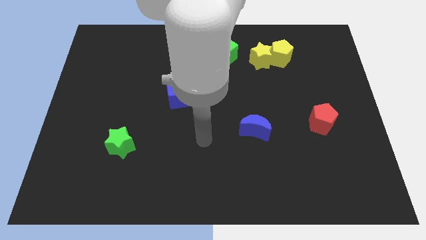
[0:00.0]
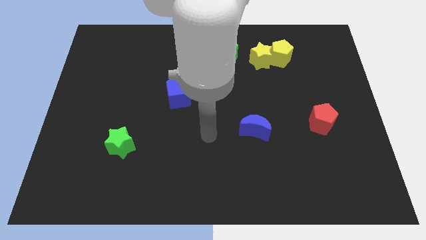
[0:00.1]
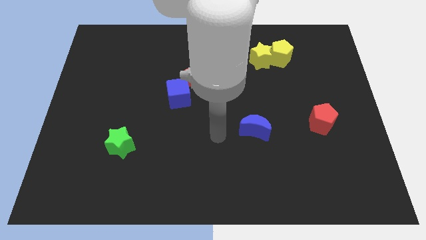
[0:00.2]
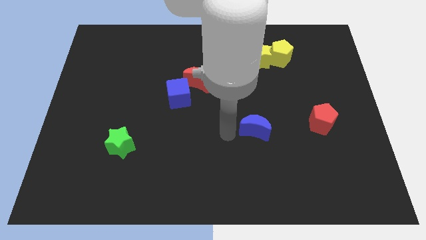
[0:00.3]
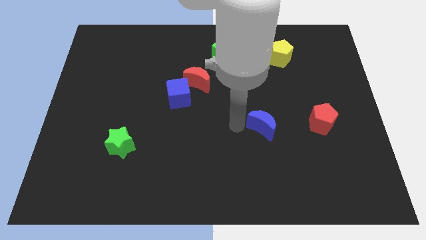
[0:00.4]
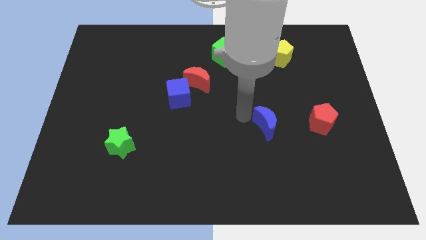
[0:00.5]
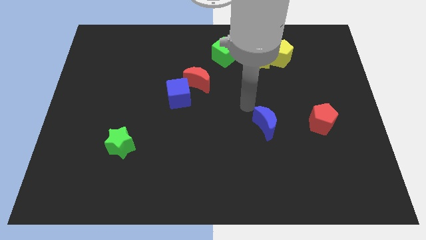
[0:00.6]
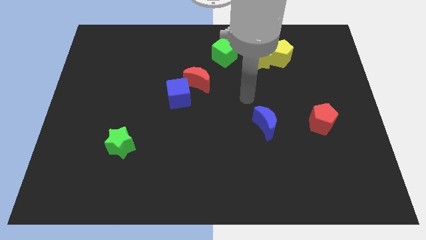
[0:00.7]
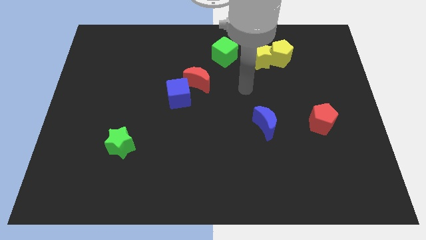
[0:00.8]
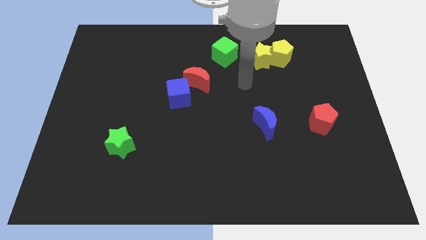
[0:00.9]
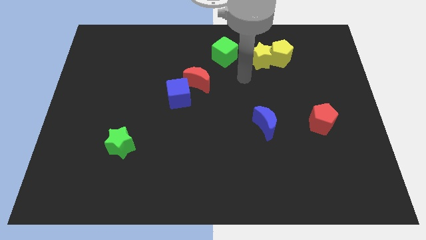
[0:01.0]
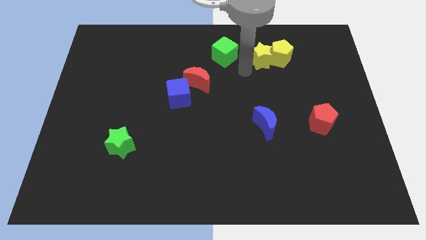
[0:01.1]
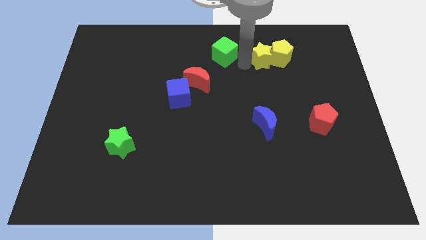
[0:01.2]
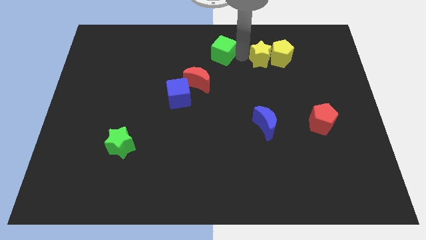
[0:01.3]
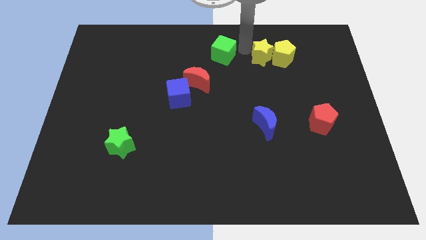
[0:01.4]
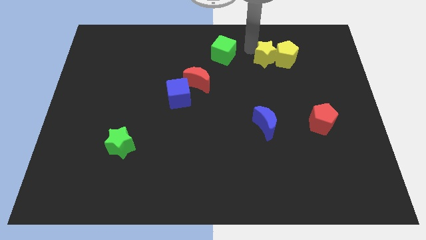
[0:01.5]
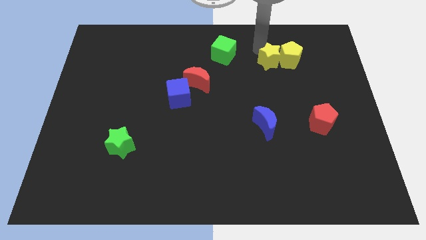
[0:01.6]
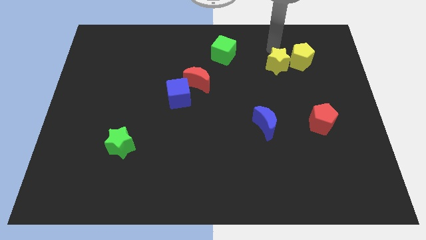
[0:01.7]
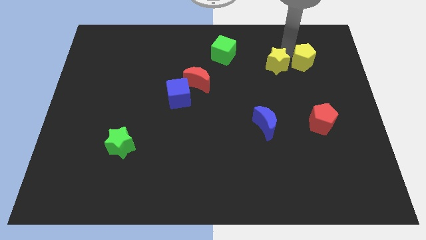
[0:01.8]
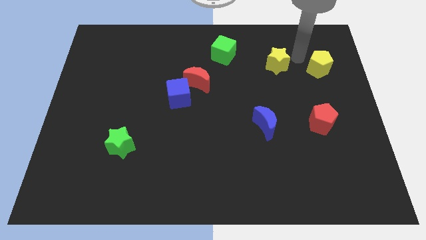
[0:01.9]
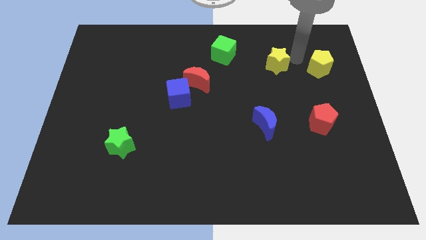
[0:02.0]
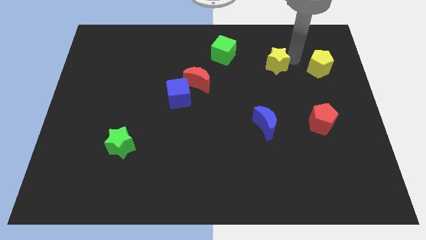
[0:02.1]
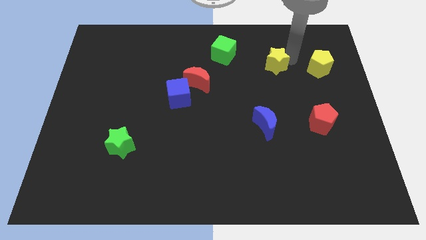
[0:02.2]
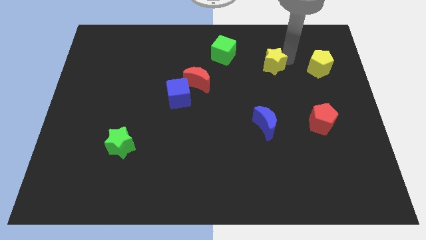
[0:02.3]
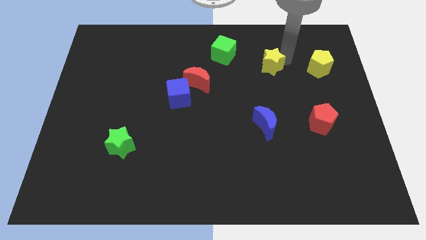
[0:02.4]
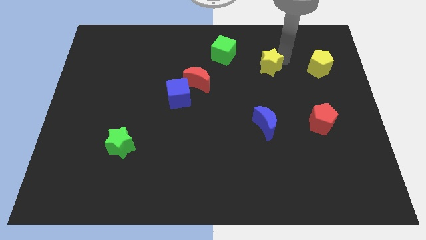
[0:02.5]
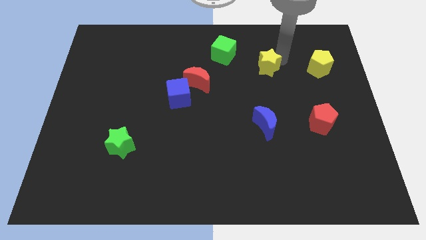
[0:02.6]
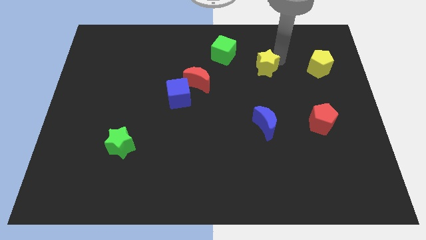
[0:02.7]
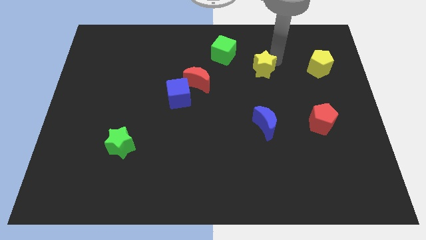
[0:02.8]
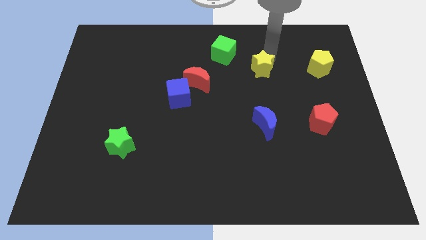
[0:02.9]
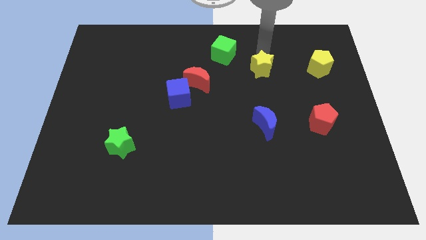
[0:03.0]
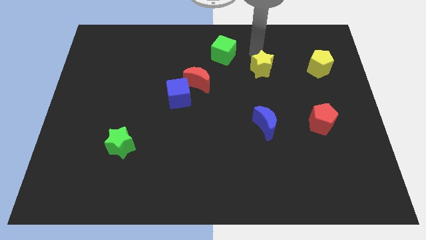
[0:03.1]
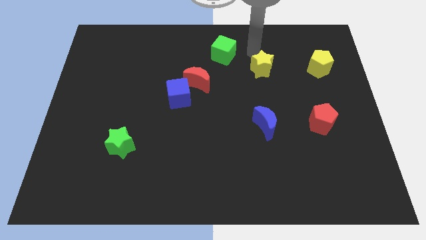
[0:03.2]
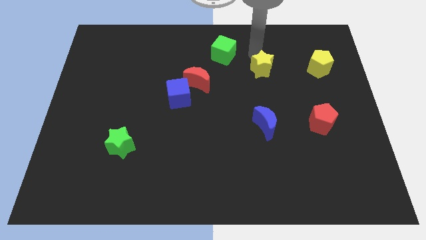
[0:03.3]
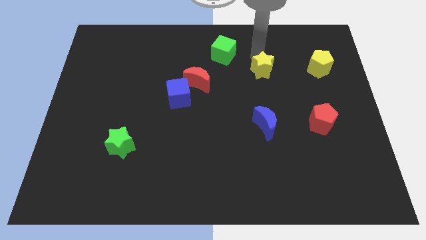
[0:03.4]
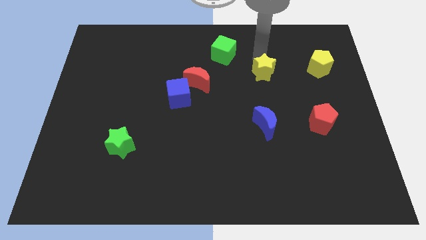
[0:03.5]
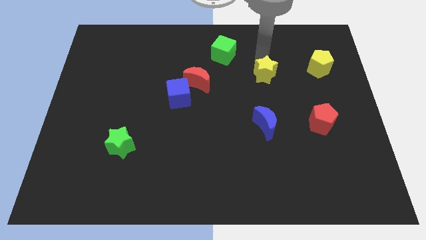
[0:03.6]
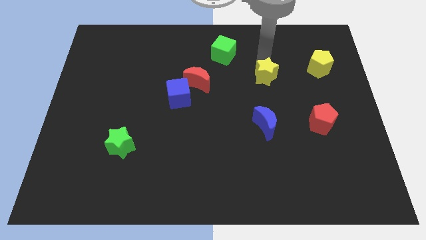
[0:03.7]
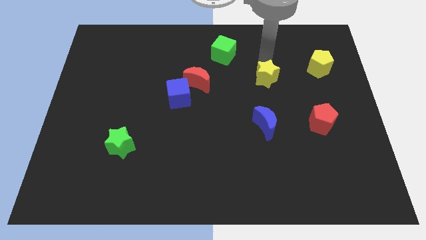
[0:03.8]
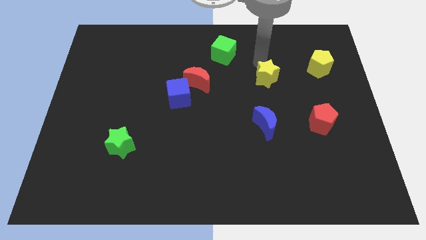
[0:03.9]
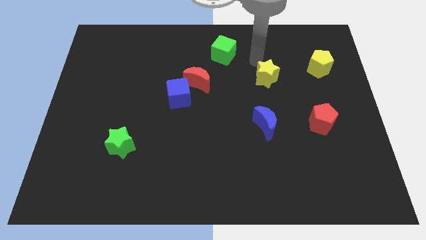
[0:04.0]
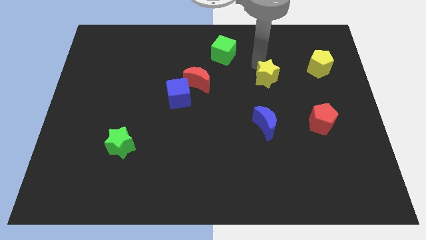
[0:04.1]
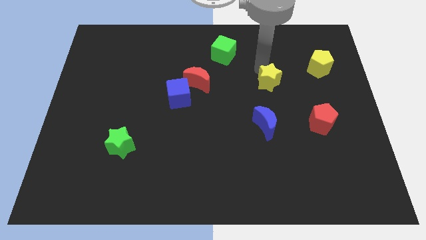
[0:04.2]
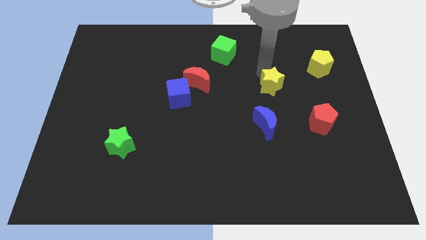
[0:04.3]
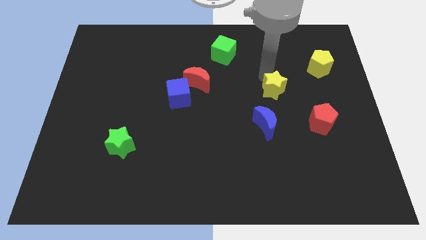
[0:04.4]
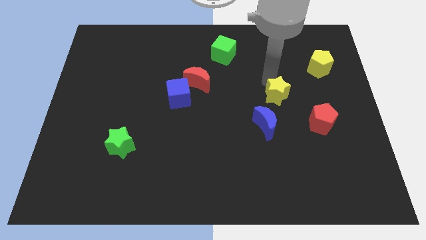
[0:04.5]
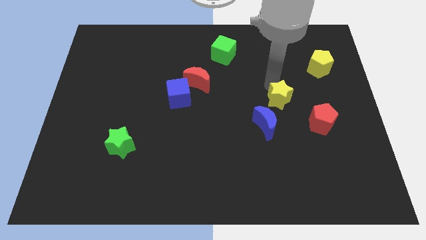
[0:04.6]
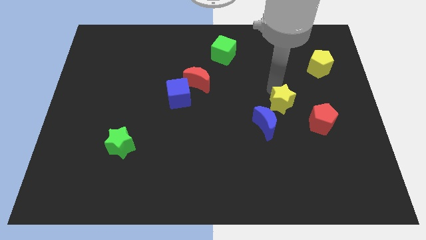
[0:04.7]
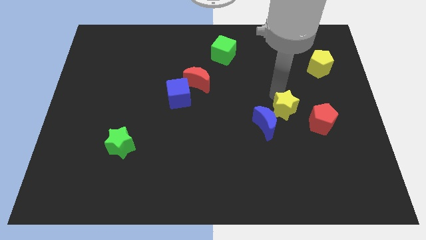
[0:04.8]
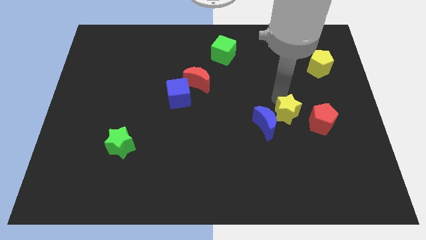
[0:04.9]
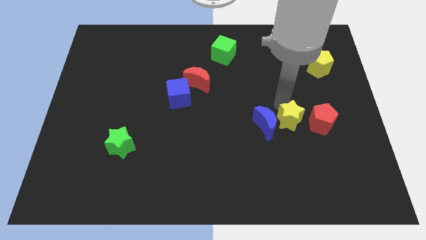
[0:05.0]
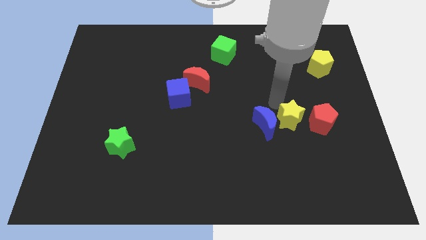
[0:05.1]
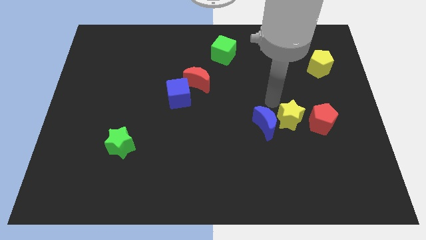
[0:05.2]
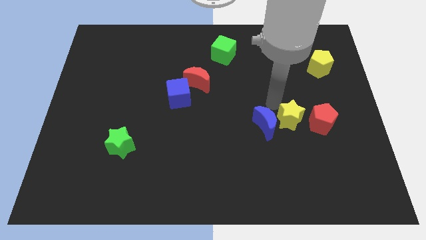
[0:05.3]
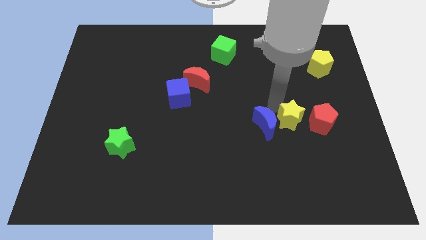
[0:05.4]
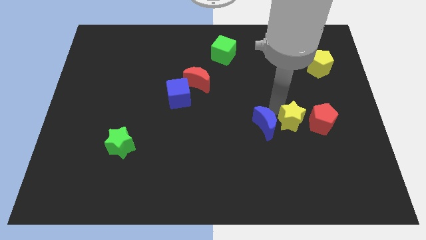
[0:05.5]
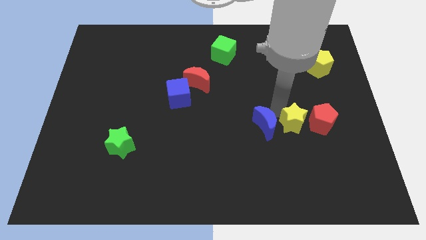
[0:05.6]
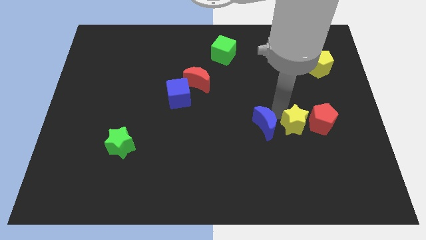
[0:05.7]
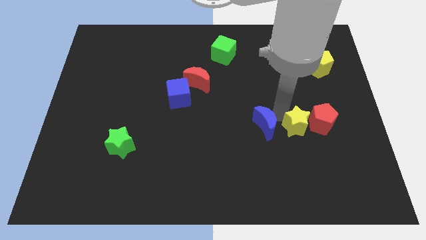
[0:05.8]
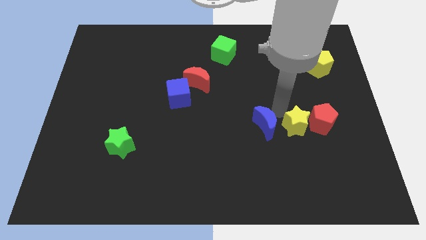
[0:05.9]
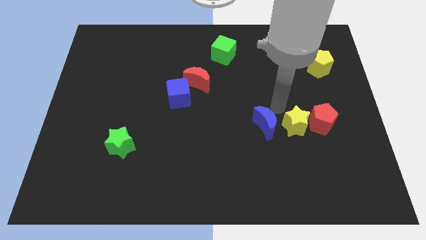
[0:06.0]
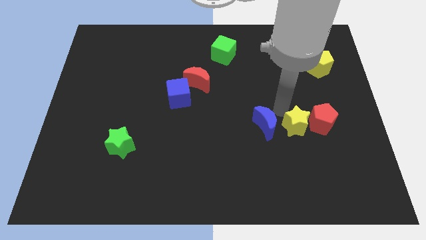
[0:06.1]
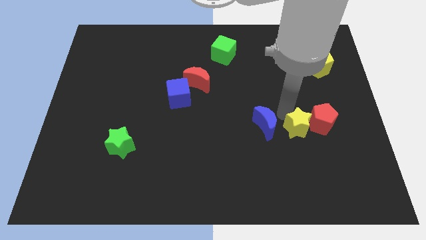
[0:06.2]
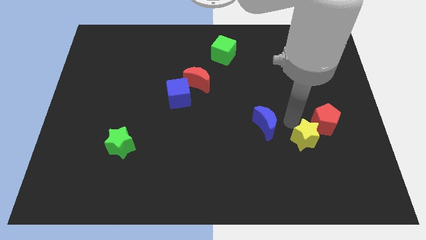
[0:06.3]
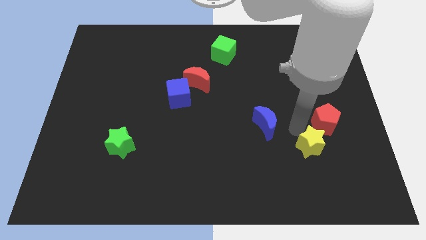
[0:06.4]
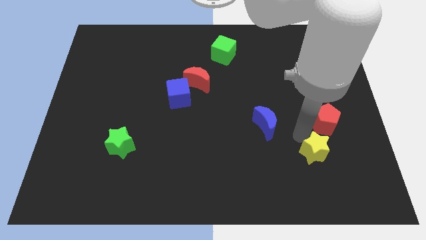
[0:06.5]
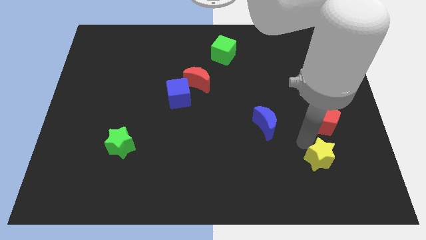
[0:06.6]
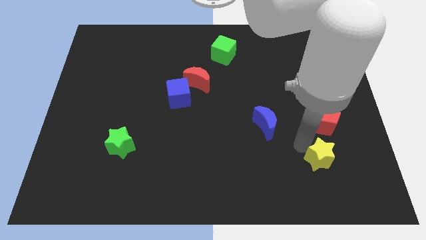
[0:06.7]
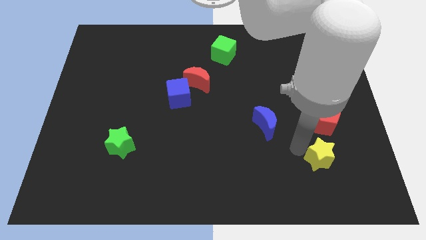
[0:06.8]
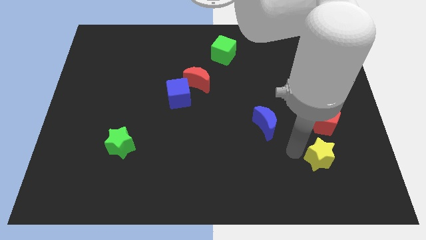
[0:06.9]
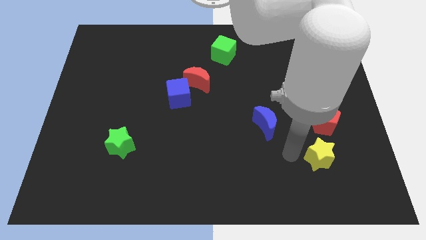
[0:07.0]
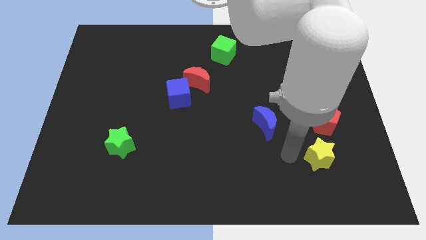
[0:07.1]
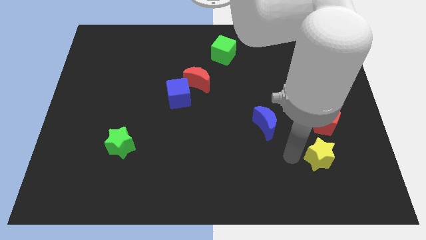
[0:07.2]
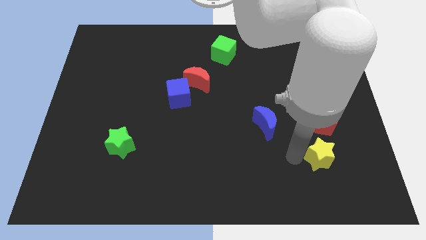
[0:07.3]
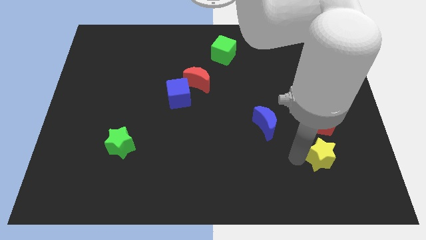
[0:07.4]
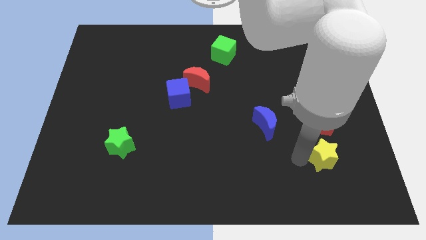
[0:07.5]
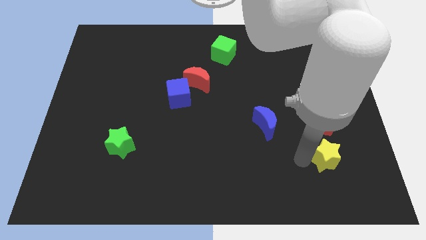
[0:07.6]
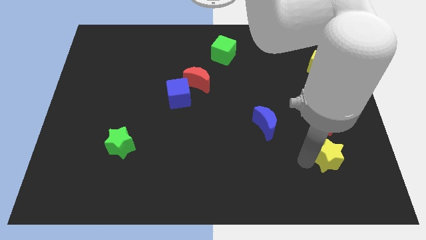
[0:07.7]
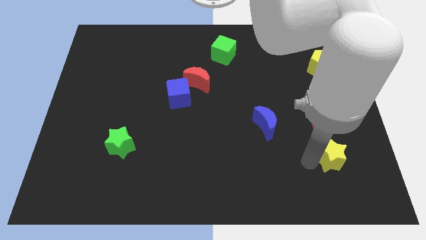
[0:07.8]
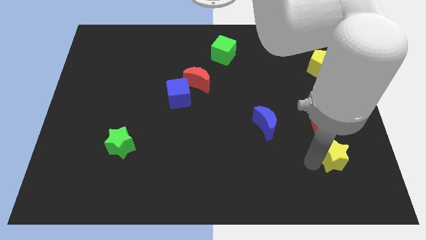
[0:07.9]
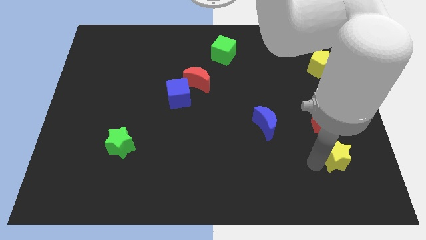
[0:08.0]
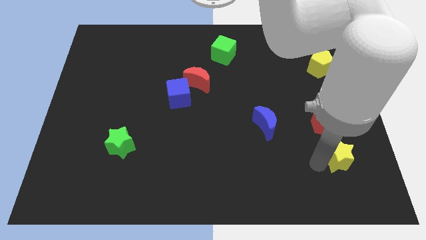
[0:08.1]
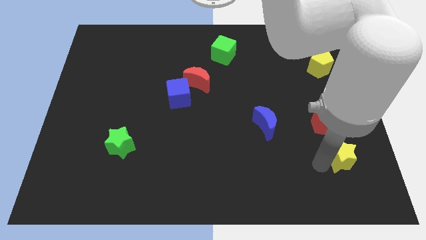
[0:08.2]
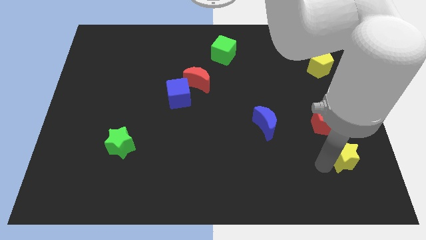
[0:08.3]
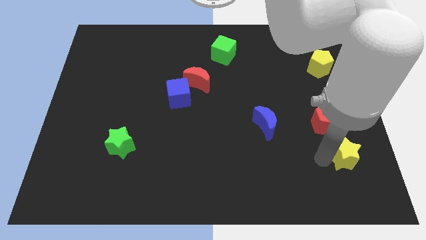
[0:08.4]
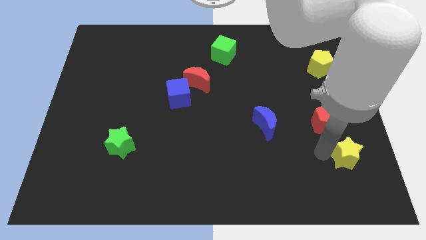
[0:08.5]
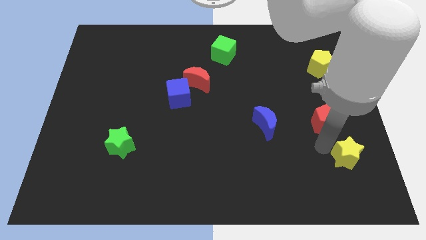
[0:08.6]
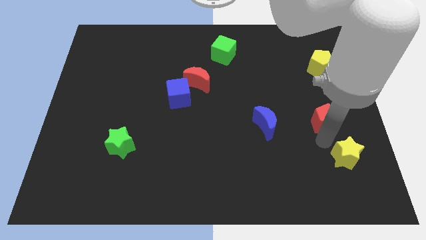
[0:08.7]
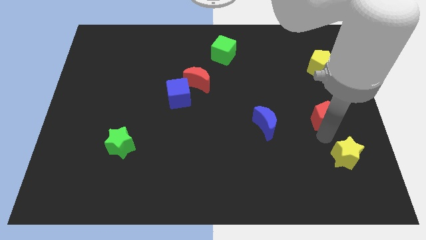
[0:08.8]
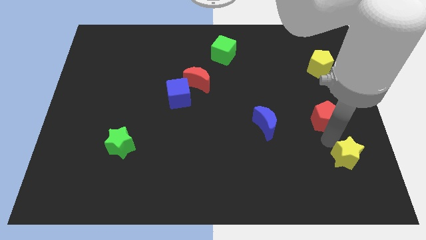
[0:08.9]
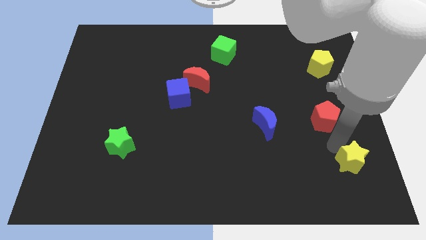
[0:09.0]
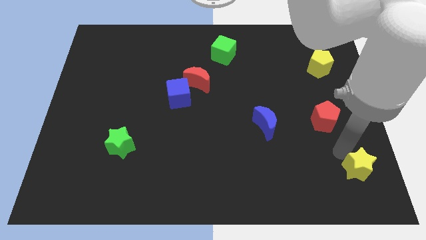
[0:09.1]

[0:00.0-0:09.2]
slide the yellow star to the lower right corner
